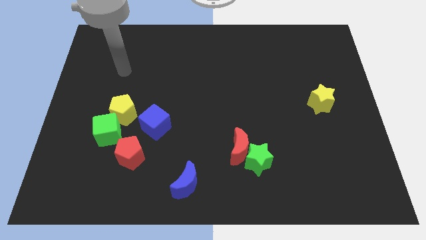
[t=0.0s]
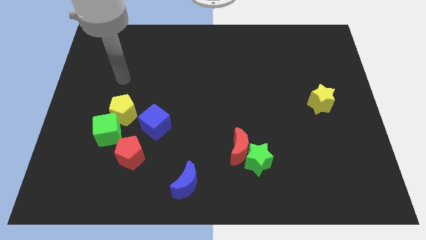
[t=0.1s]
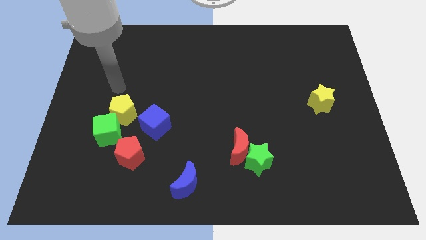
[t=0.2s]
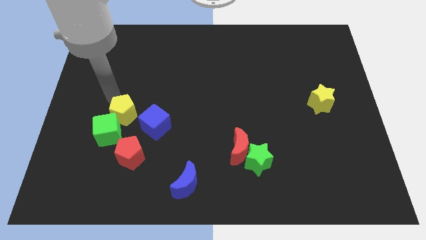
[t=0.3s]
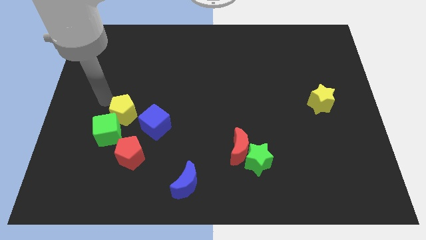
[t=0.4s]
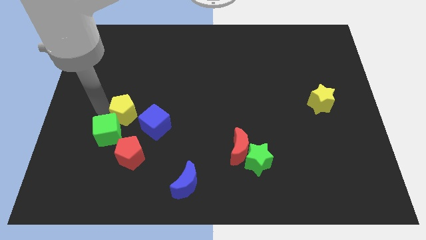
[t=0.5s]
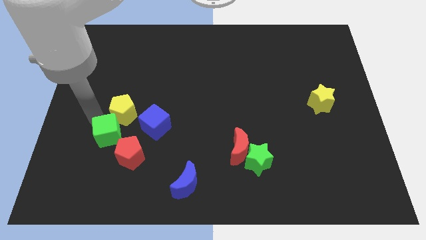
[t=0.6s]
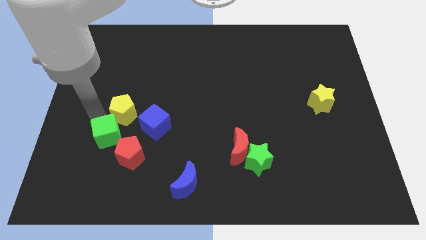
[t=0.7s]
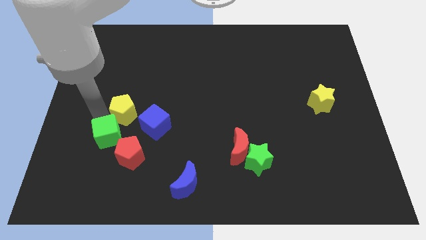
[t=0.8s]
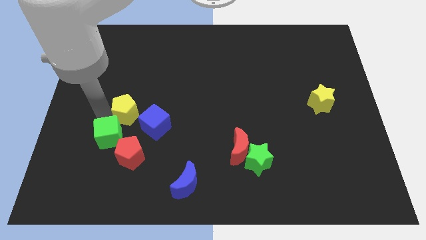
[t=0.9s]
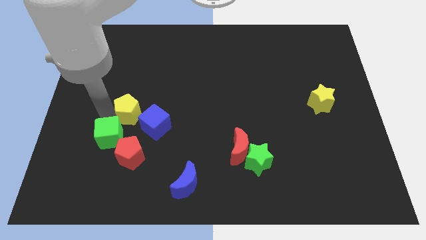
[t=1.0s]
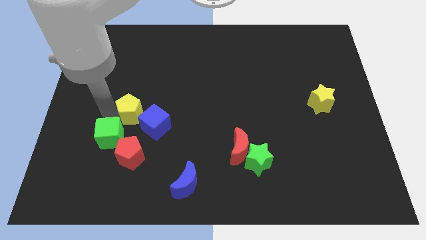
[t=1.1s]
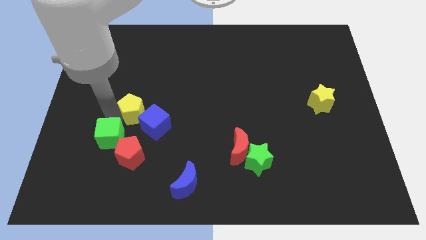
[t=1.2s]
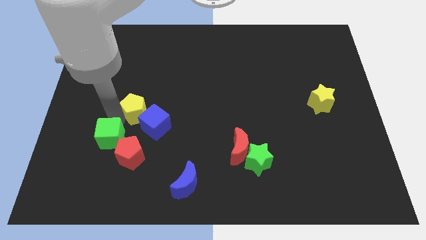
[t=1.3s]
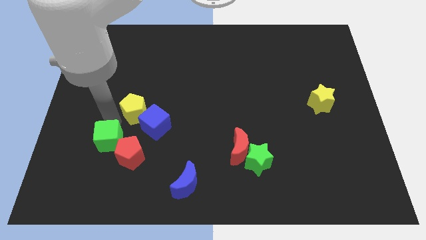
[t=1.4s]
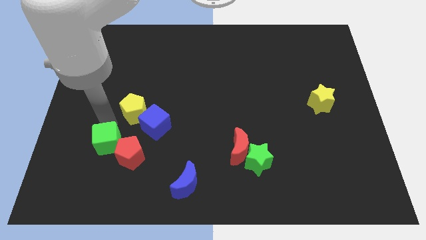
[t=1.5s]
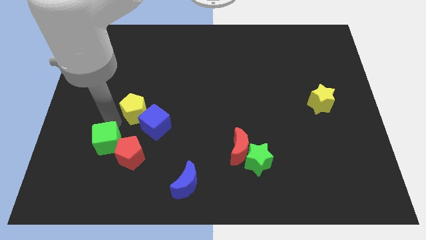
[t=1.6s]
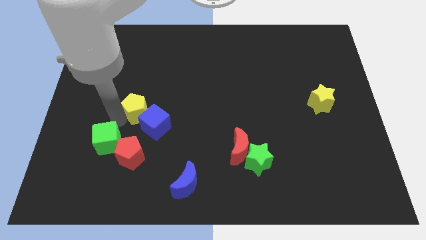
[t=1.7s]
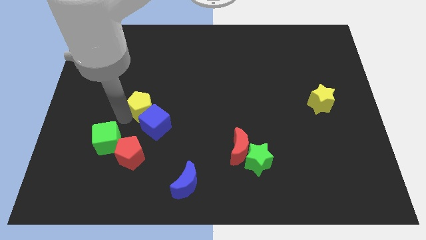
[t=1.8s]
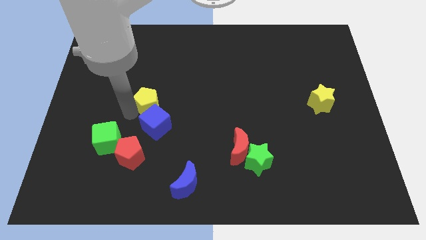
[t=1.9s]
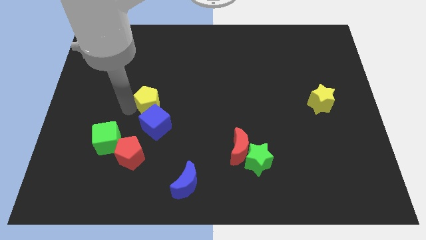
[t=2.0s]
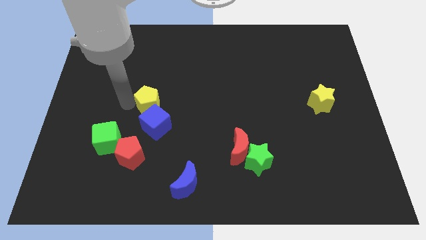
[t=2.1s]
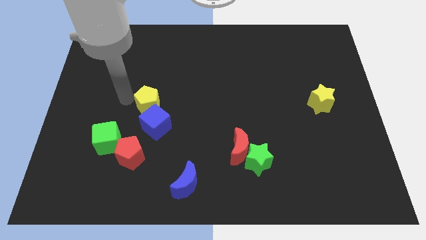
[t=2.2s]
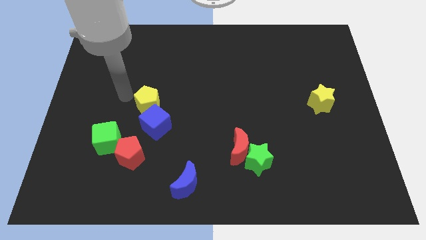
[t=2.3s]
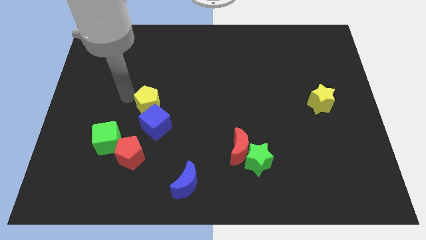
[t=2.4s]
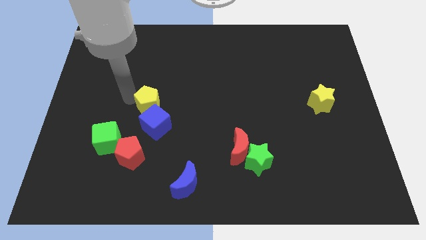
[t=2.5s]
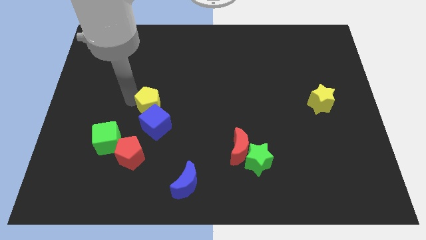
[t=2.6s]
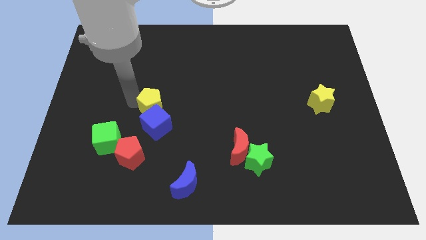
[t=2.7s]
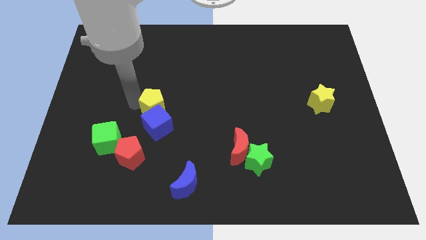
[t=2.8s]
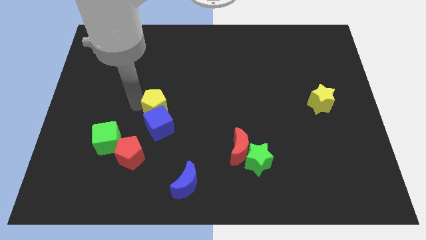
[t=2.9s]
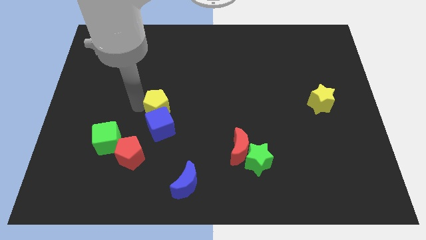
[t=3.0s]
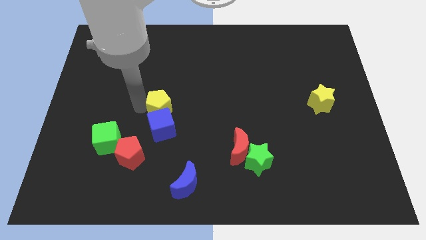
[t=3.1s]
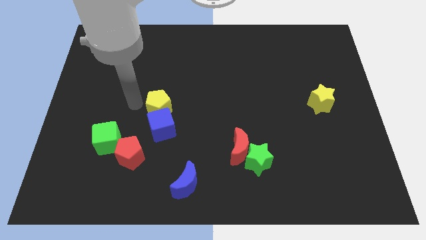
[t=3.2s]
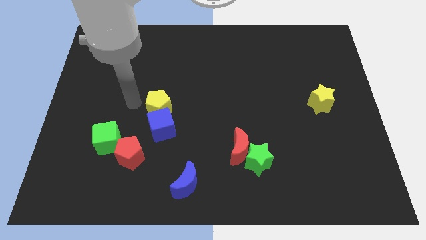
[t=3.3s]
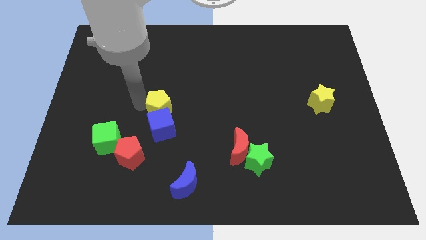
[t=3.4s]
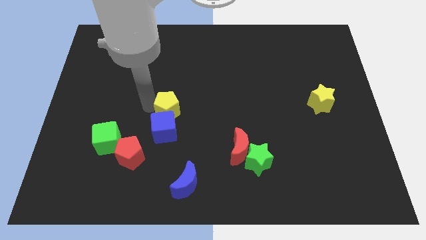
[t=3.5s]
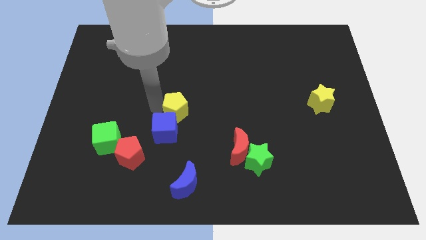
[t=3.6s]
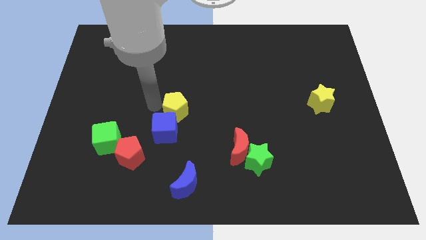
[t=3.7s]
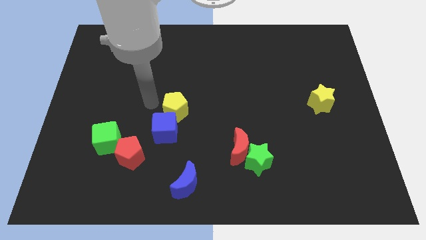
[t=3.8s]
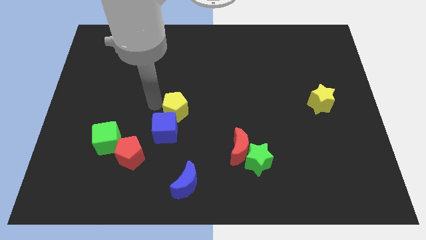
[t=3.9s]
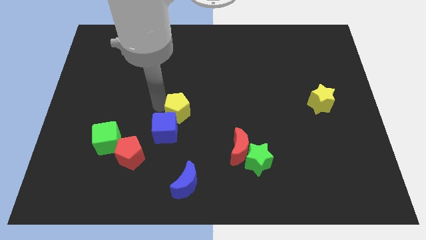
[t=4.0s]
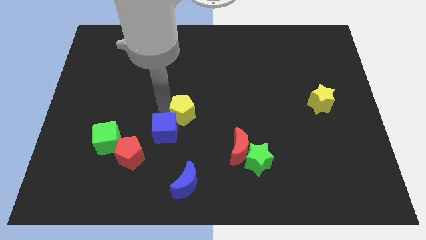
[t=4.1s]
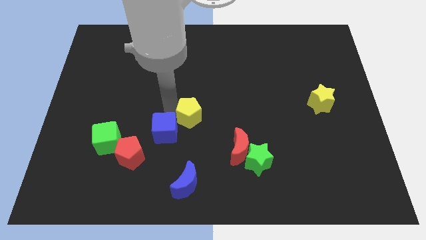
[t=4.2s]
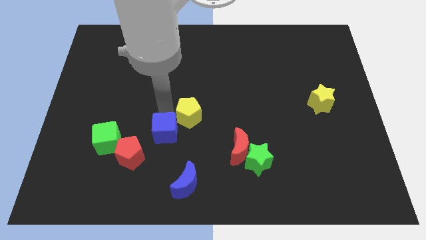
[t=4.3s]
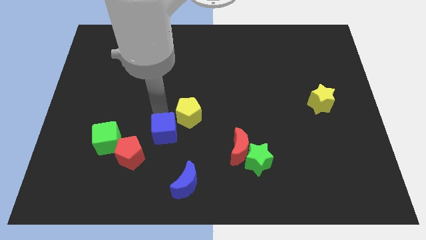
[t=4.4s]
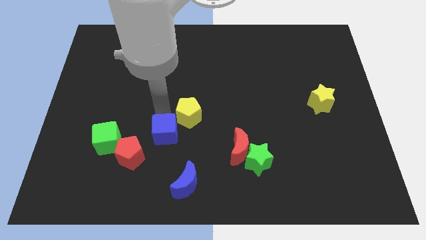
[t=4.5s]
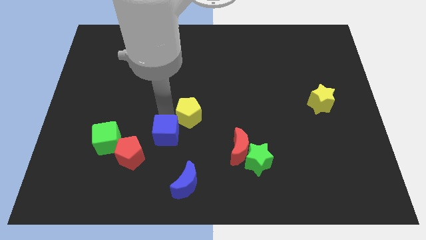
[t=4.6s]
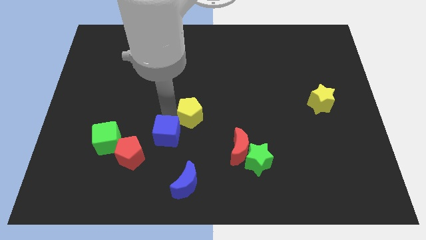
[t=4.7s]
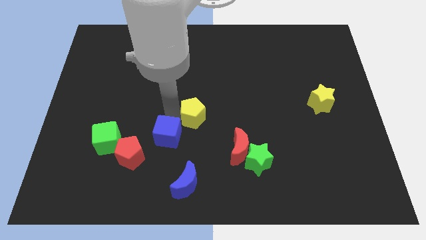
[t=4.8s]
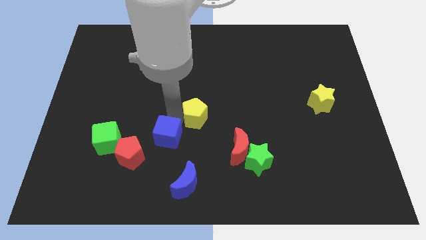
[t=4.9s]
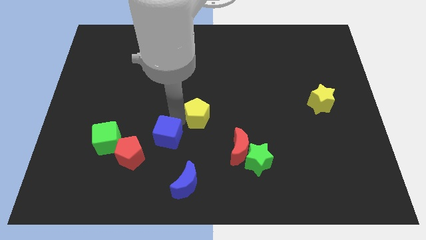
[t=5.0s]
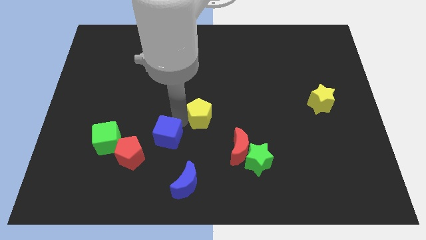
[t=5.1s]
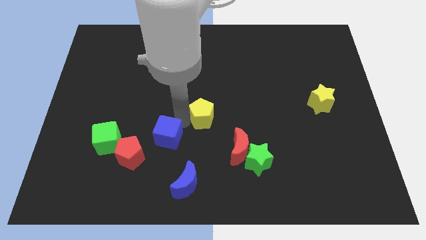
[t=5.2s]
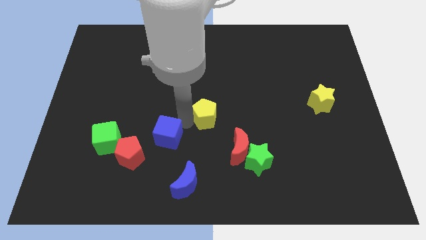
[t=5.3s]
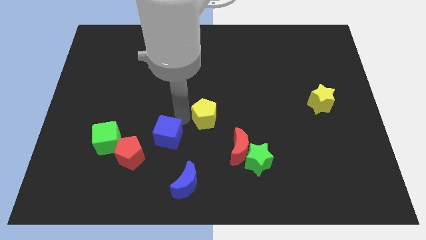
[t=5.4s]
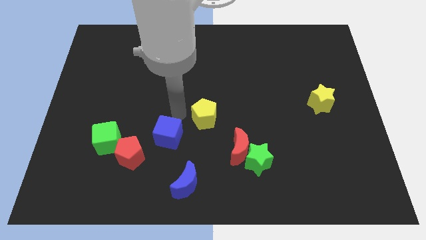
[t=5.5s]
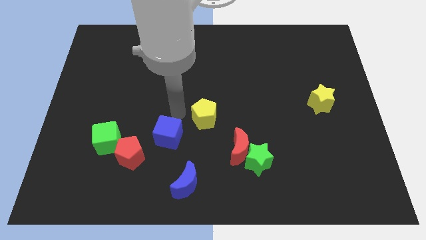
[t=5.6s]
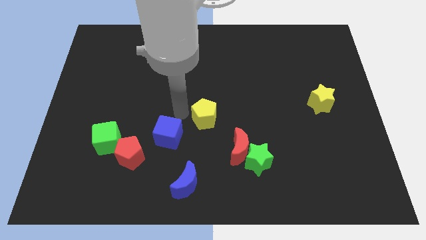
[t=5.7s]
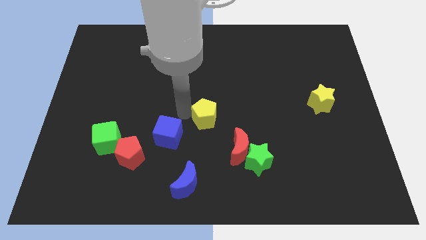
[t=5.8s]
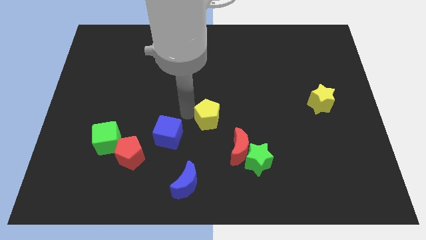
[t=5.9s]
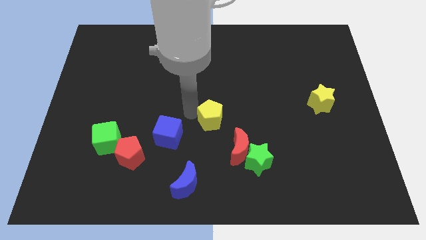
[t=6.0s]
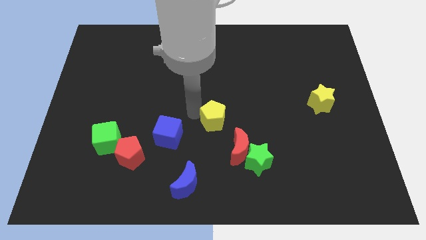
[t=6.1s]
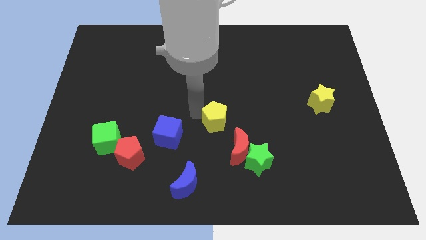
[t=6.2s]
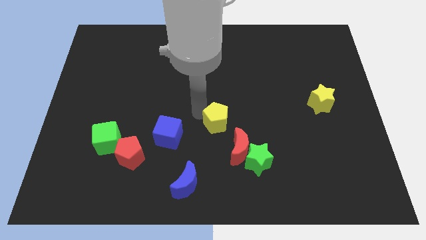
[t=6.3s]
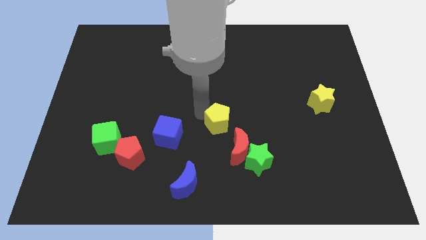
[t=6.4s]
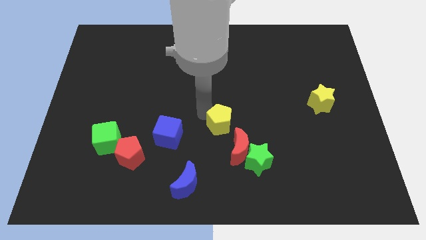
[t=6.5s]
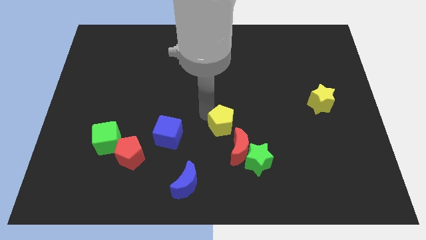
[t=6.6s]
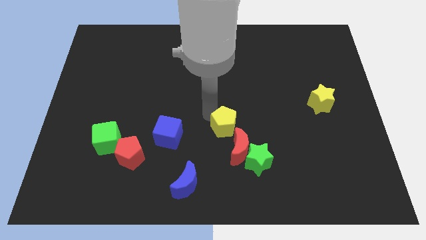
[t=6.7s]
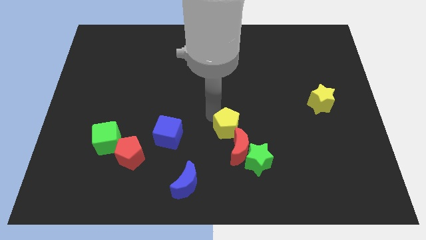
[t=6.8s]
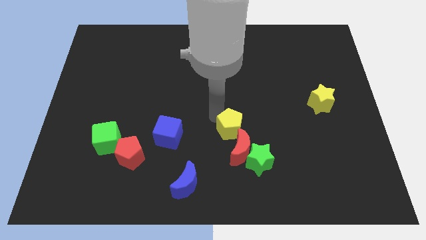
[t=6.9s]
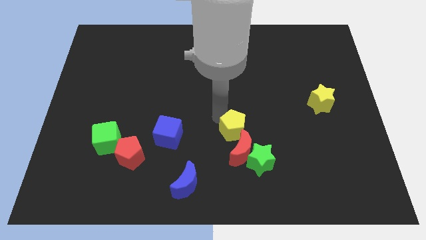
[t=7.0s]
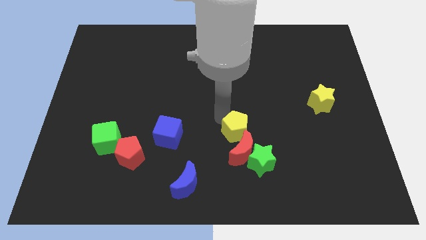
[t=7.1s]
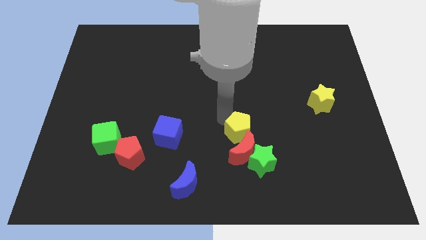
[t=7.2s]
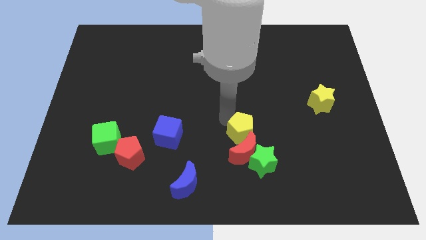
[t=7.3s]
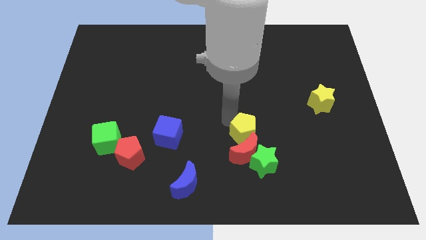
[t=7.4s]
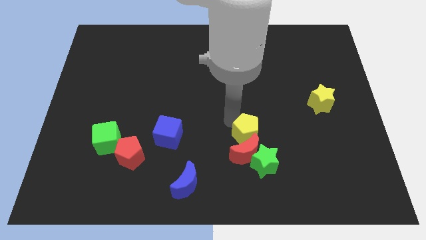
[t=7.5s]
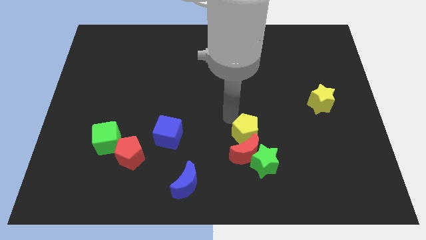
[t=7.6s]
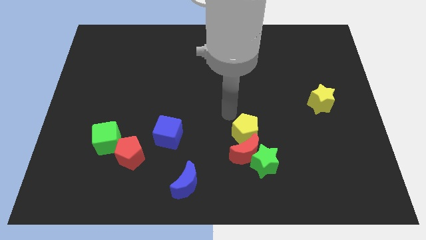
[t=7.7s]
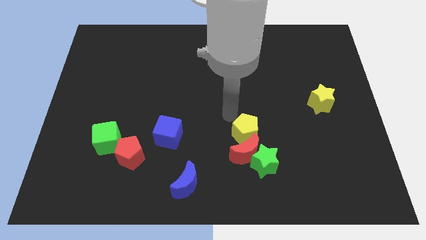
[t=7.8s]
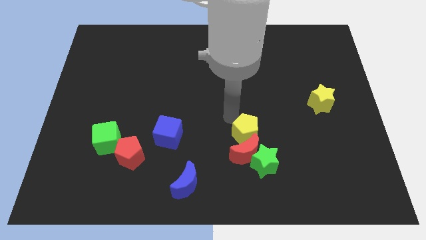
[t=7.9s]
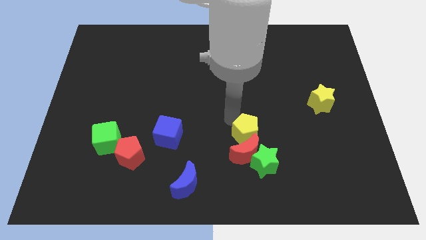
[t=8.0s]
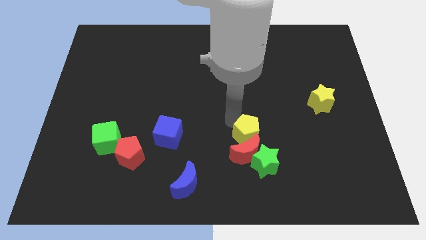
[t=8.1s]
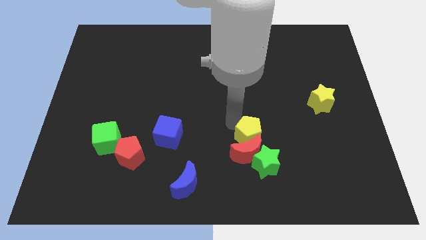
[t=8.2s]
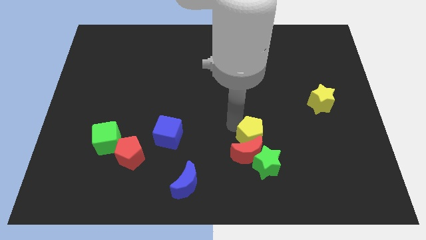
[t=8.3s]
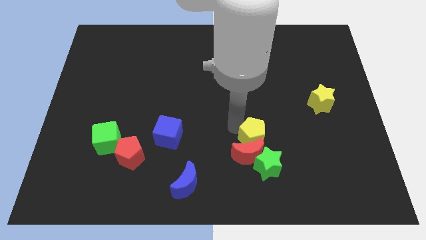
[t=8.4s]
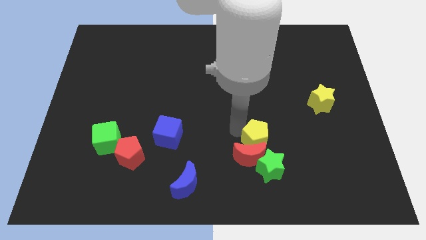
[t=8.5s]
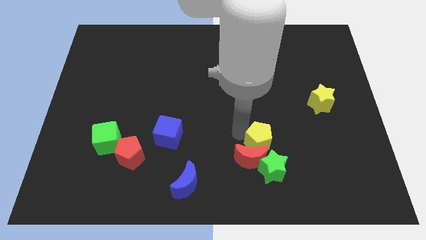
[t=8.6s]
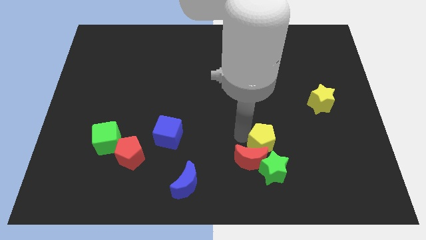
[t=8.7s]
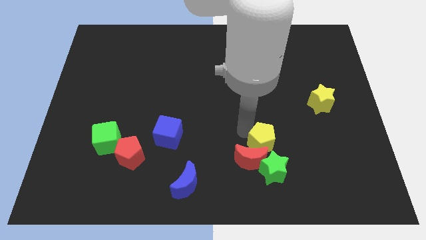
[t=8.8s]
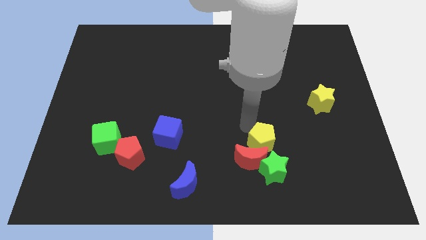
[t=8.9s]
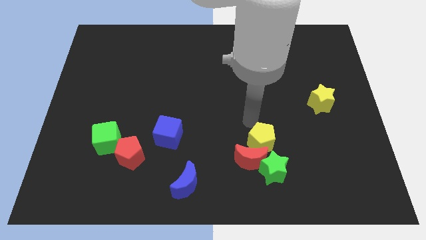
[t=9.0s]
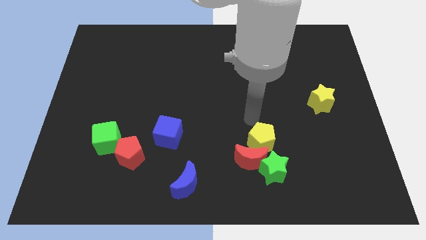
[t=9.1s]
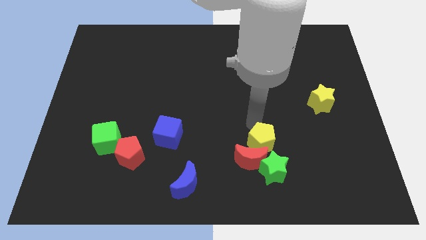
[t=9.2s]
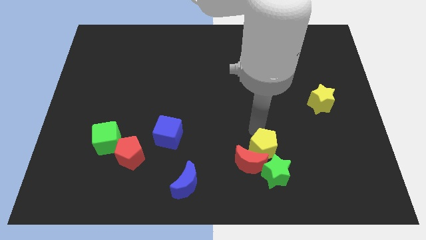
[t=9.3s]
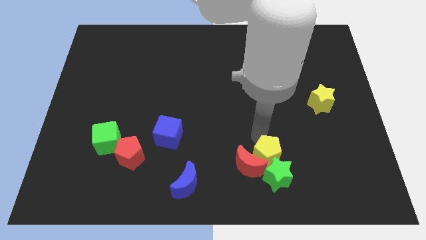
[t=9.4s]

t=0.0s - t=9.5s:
push the yellow pentagon towards the green star
